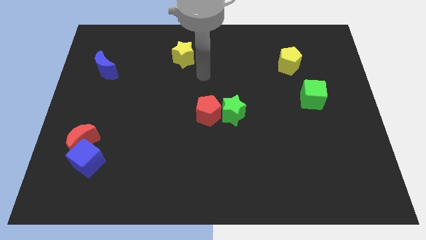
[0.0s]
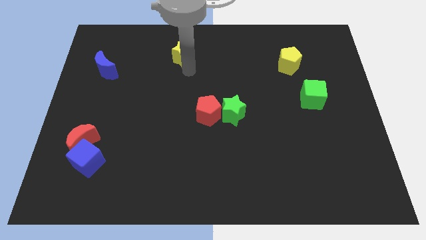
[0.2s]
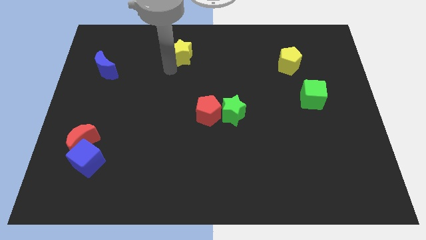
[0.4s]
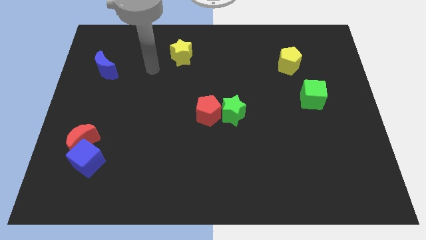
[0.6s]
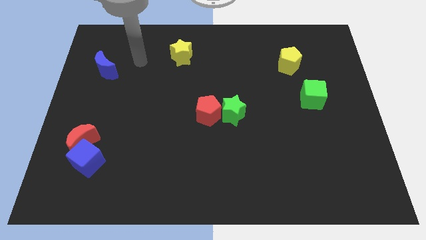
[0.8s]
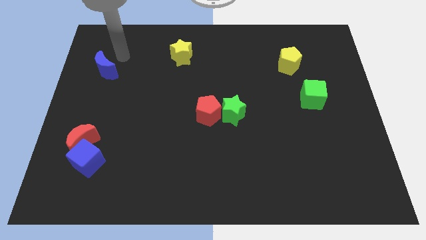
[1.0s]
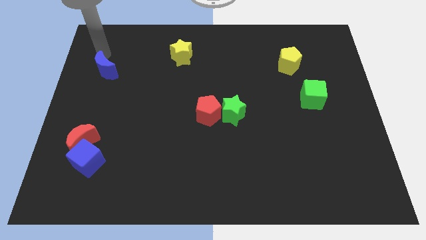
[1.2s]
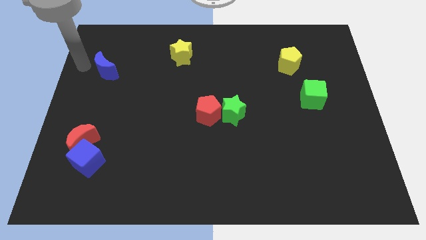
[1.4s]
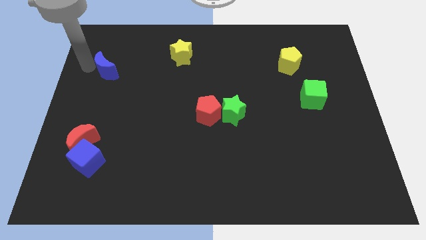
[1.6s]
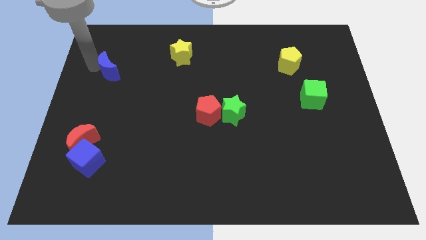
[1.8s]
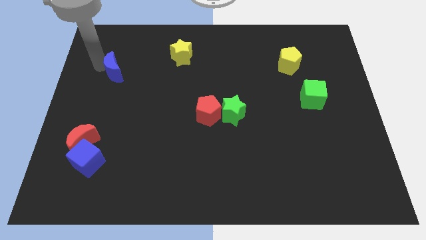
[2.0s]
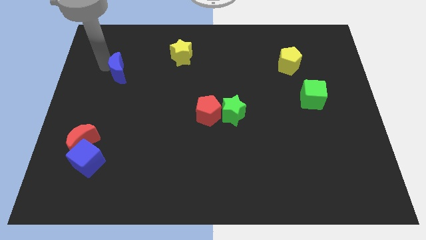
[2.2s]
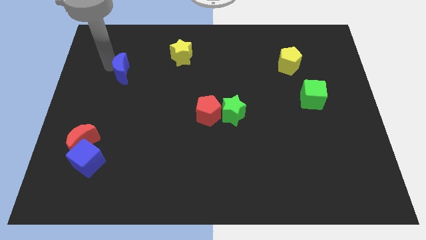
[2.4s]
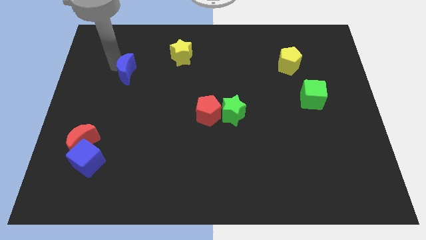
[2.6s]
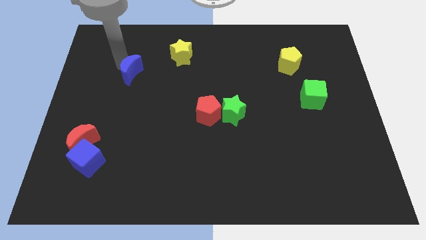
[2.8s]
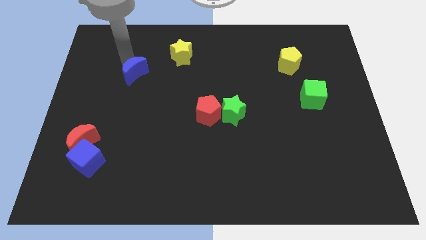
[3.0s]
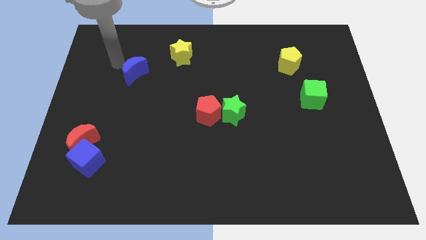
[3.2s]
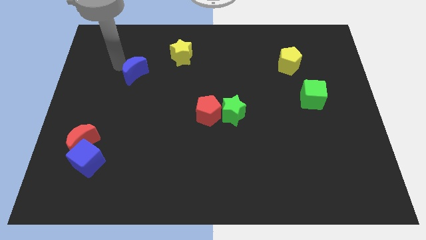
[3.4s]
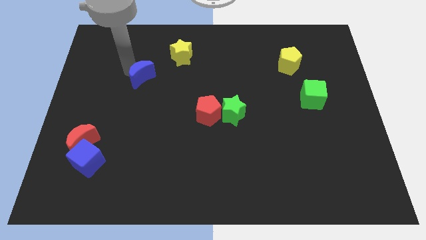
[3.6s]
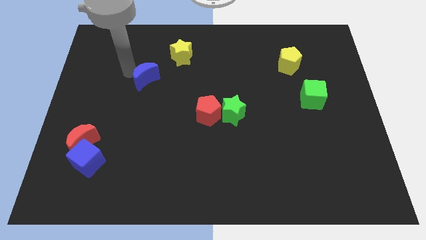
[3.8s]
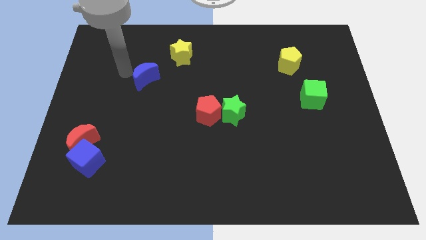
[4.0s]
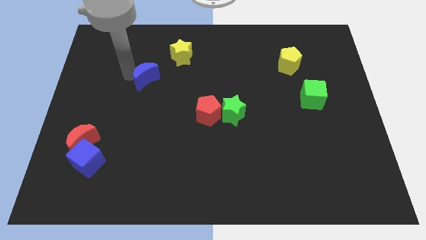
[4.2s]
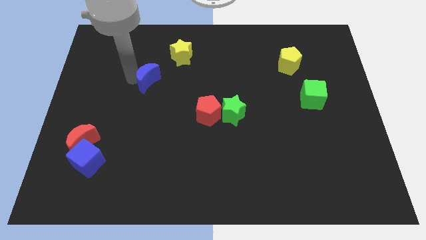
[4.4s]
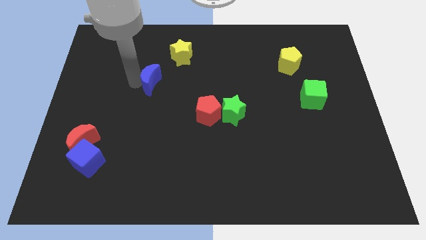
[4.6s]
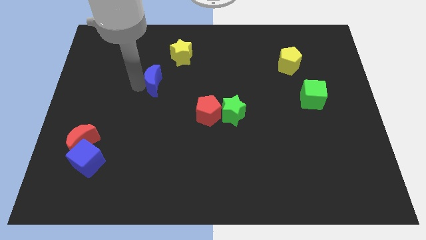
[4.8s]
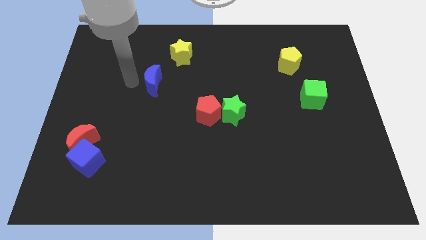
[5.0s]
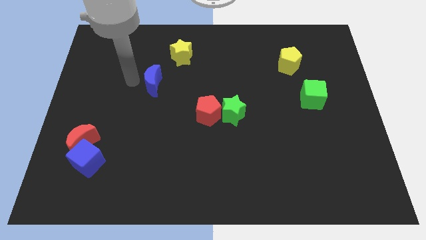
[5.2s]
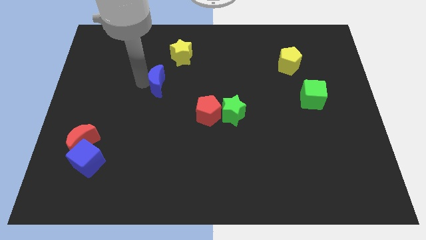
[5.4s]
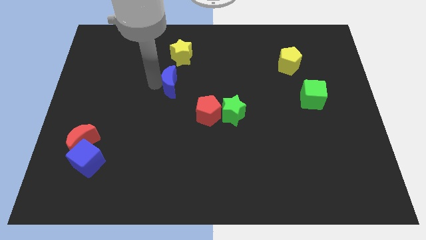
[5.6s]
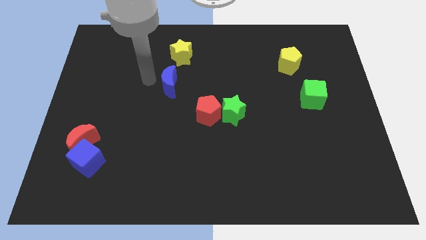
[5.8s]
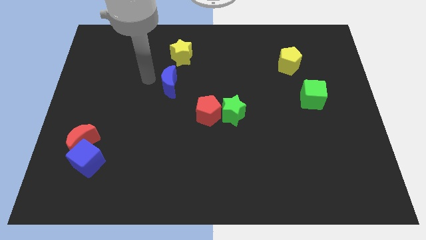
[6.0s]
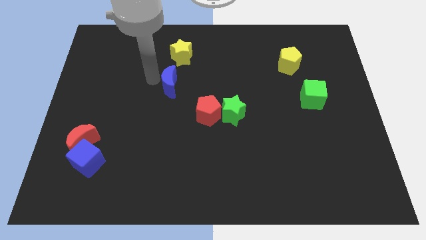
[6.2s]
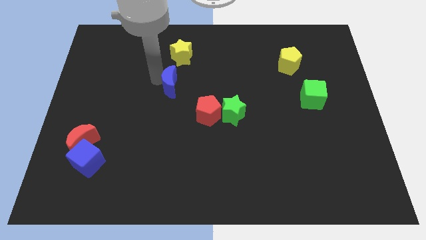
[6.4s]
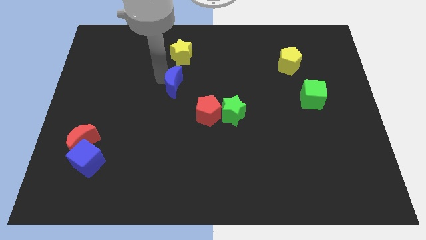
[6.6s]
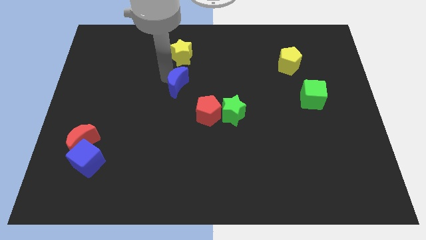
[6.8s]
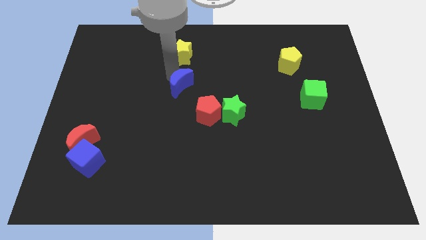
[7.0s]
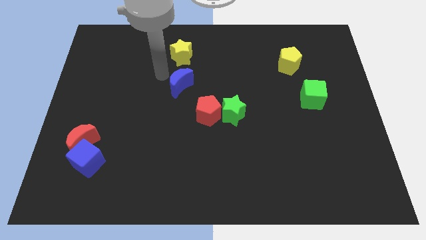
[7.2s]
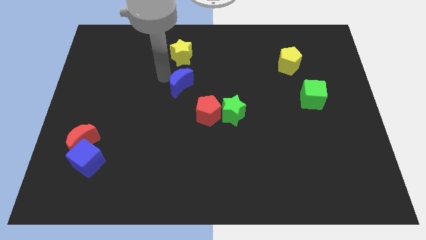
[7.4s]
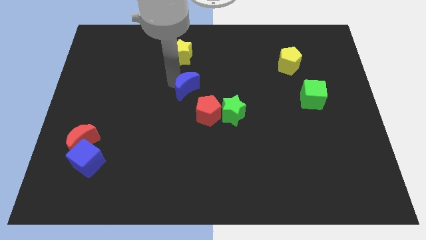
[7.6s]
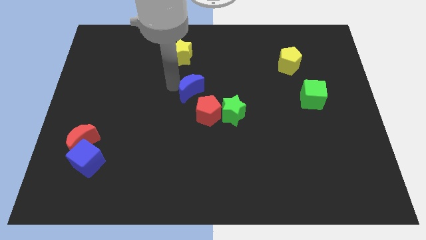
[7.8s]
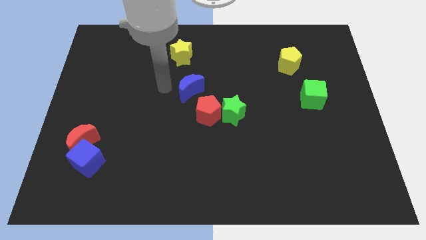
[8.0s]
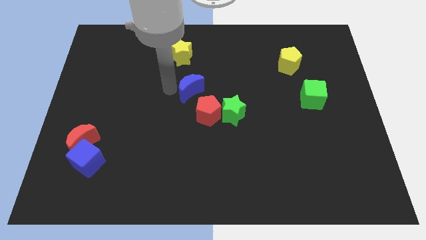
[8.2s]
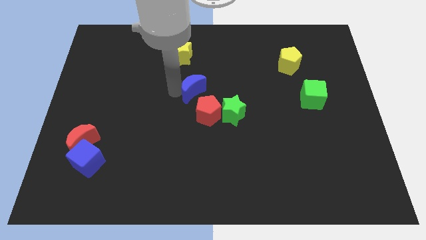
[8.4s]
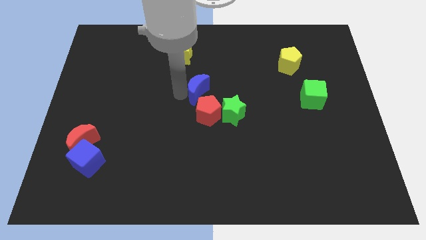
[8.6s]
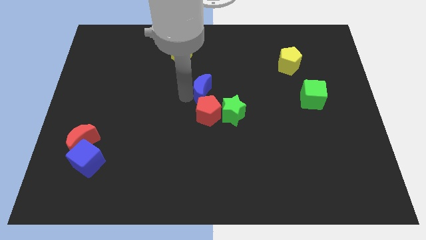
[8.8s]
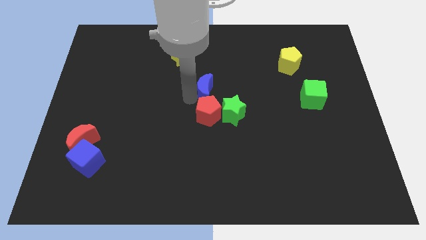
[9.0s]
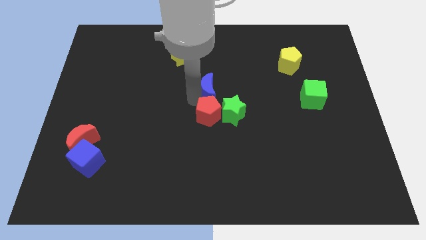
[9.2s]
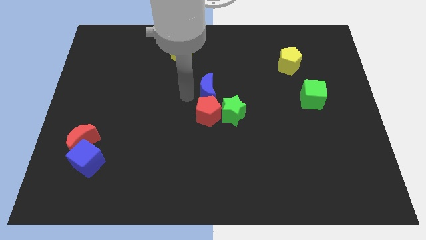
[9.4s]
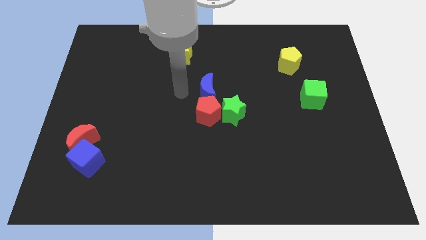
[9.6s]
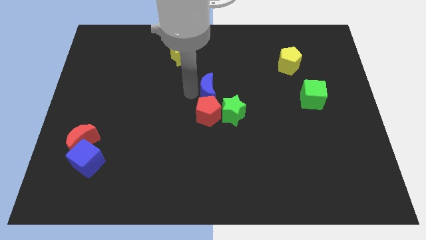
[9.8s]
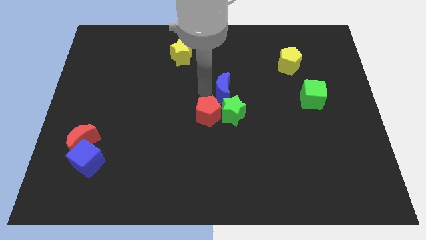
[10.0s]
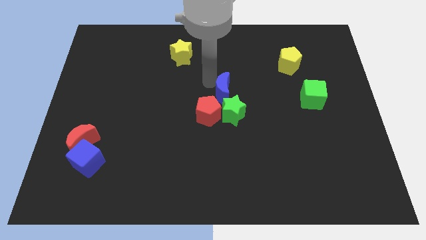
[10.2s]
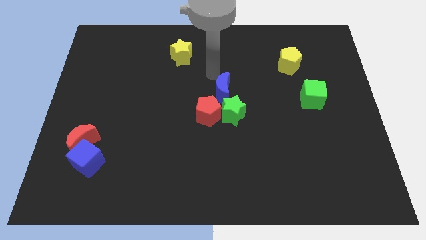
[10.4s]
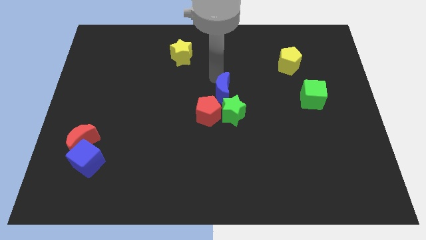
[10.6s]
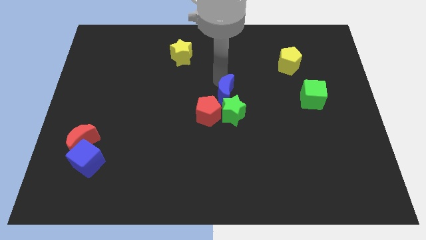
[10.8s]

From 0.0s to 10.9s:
push the blue moon next to the green star

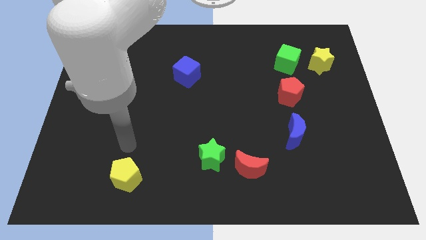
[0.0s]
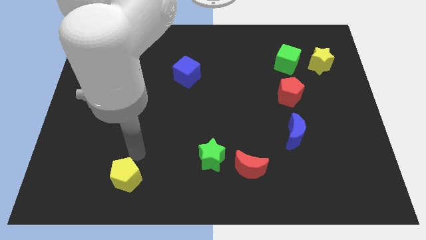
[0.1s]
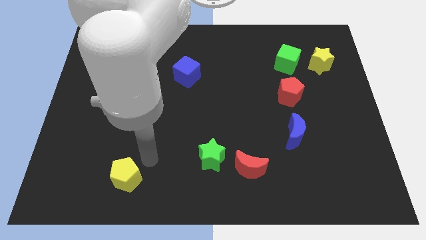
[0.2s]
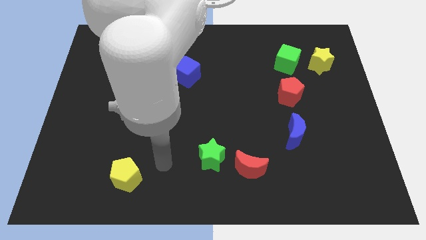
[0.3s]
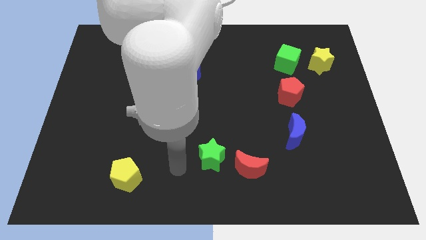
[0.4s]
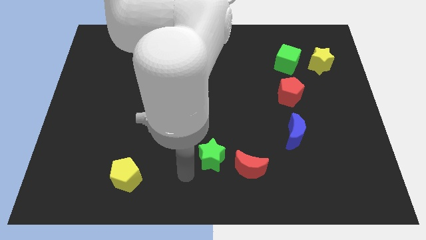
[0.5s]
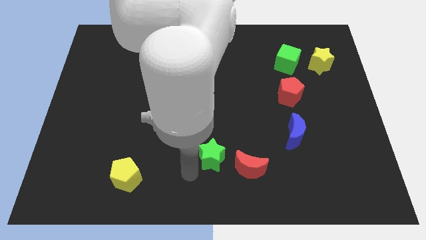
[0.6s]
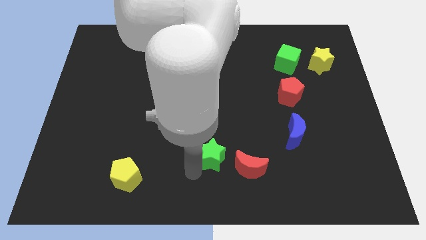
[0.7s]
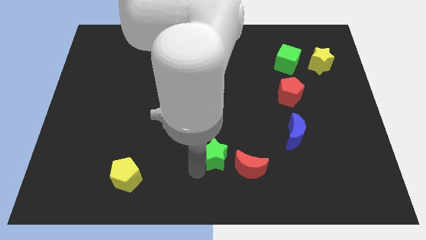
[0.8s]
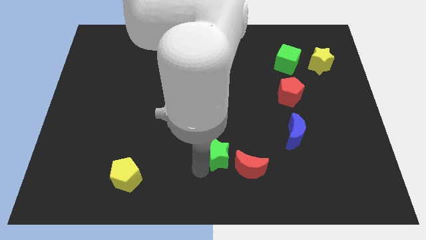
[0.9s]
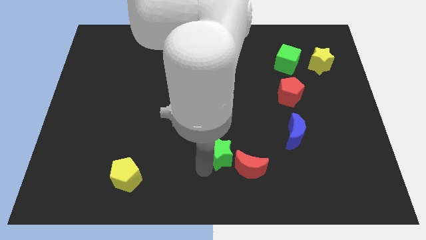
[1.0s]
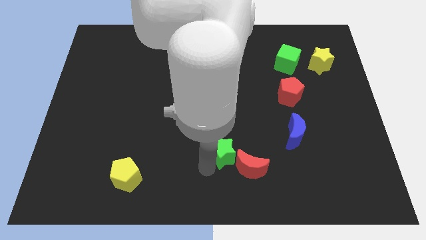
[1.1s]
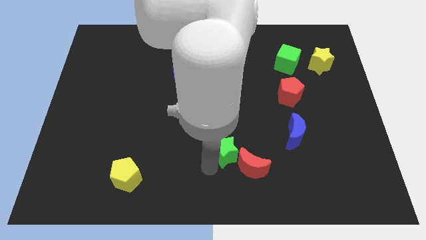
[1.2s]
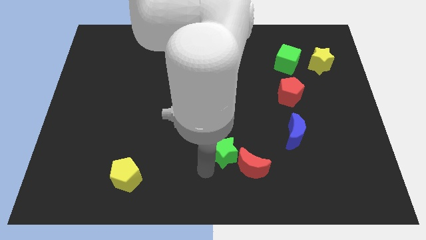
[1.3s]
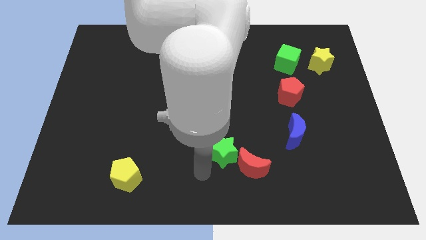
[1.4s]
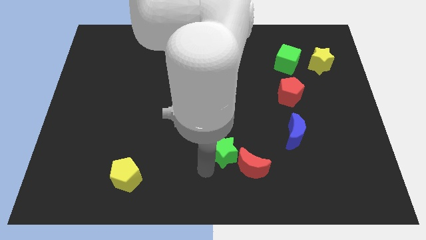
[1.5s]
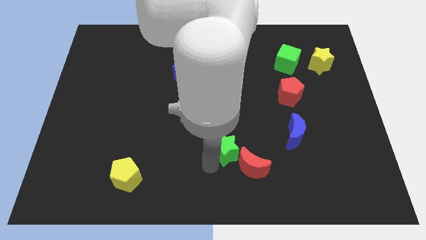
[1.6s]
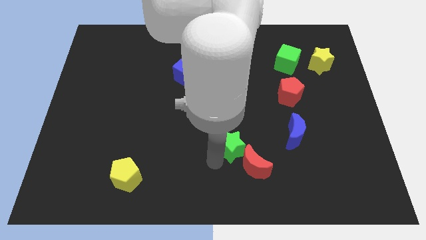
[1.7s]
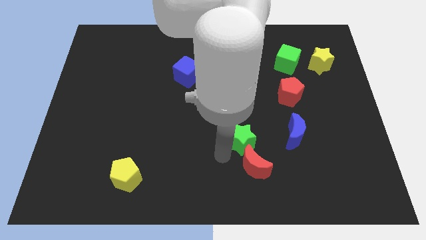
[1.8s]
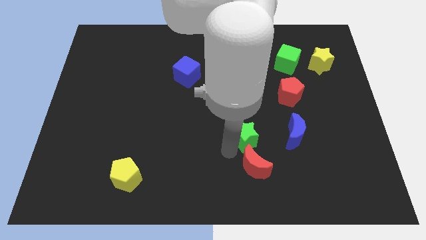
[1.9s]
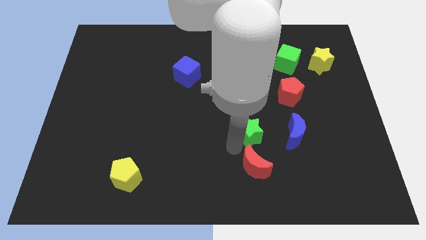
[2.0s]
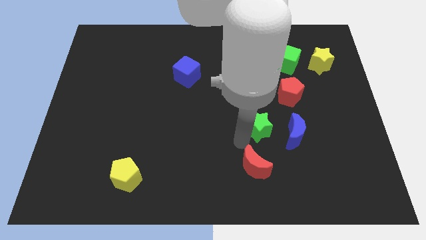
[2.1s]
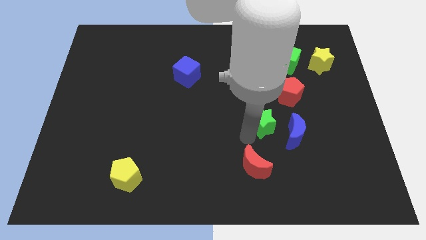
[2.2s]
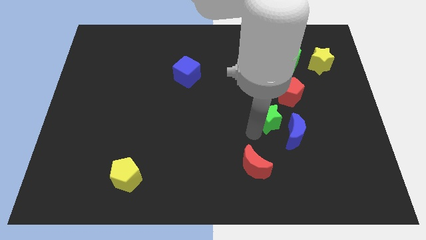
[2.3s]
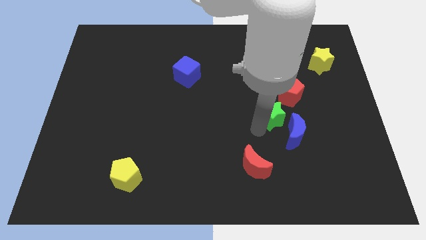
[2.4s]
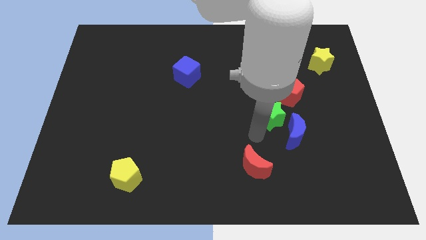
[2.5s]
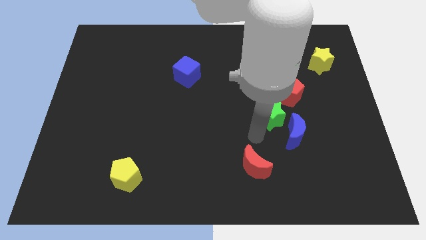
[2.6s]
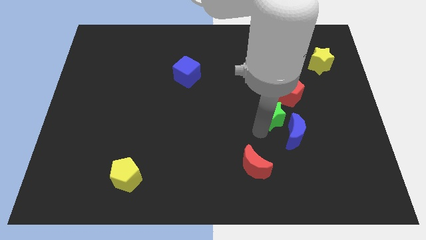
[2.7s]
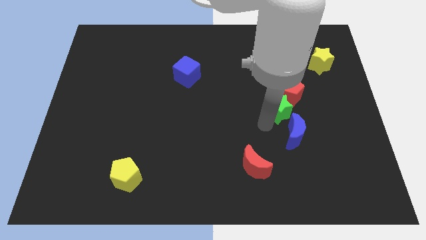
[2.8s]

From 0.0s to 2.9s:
move the green star to the red pentagon
